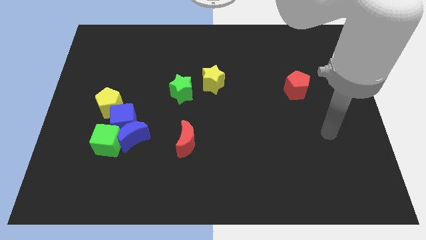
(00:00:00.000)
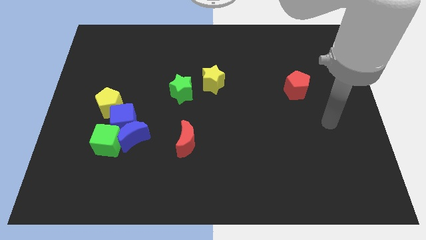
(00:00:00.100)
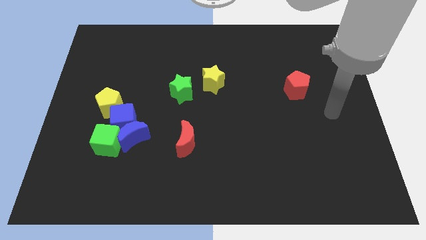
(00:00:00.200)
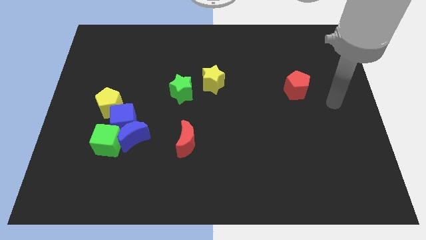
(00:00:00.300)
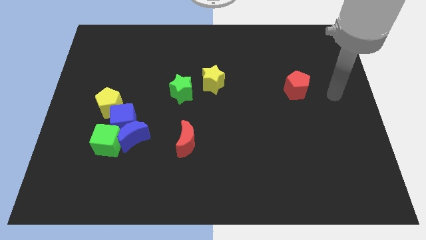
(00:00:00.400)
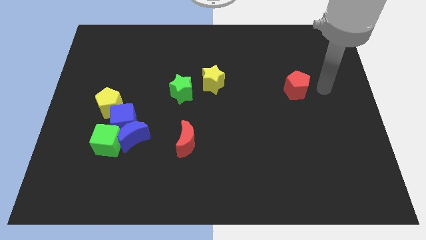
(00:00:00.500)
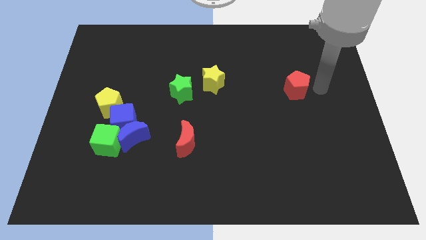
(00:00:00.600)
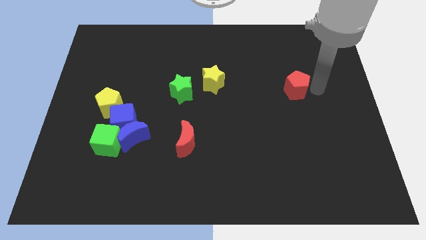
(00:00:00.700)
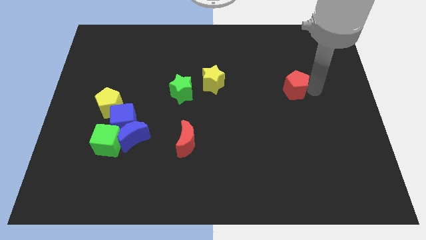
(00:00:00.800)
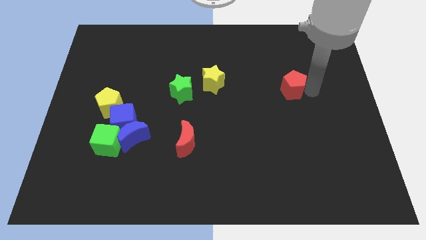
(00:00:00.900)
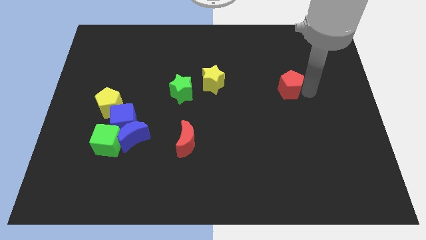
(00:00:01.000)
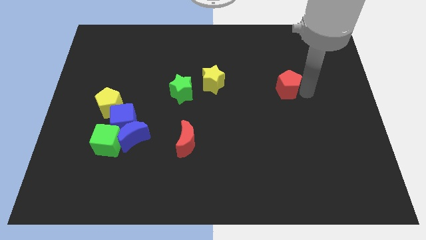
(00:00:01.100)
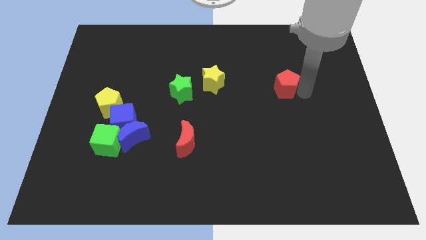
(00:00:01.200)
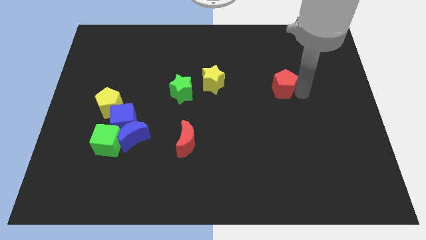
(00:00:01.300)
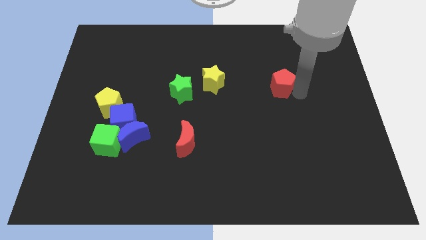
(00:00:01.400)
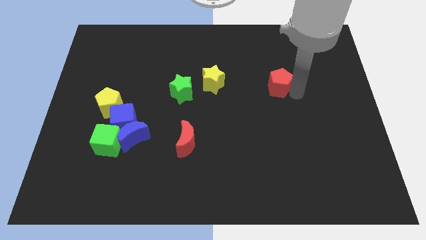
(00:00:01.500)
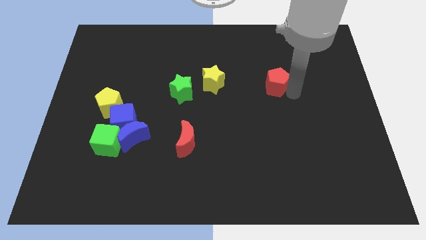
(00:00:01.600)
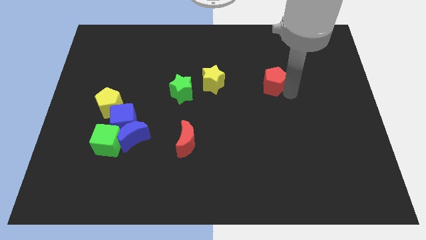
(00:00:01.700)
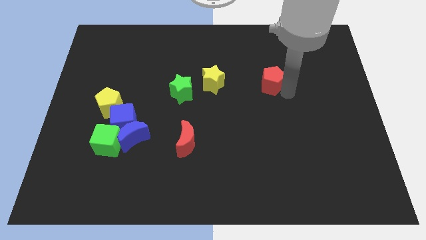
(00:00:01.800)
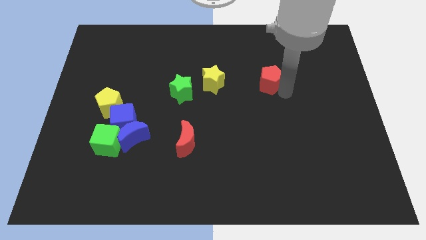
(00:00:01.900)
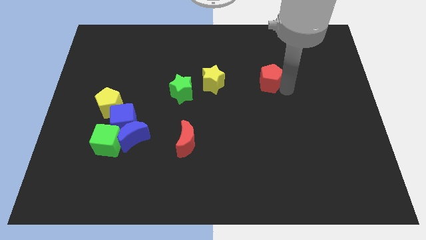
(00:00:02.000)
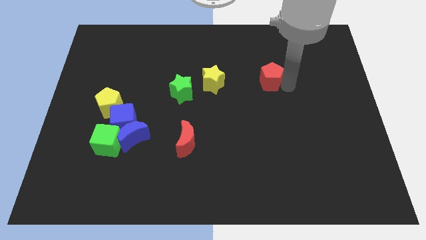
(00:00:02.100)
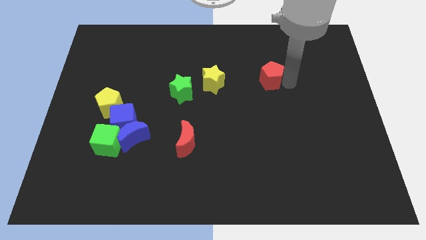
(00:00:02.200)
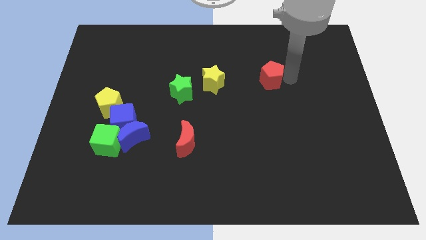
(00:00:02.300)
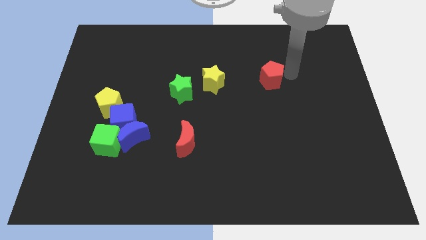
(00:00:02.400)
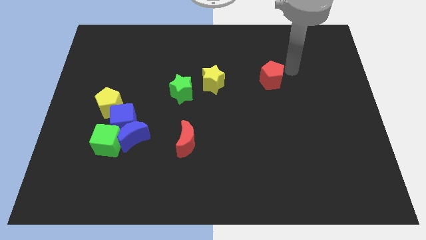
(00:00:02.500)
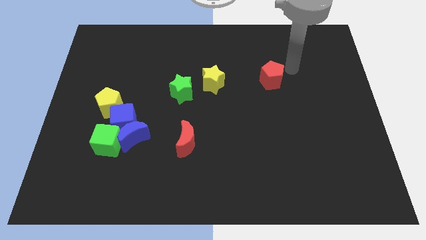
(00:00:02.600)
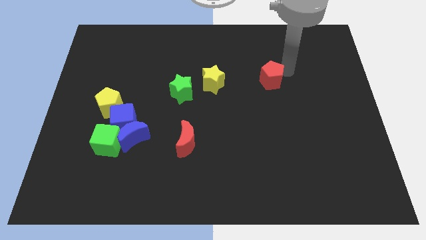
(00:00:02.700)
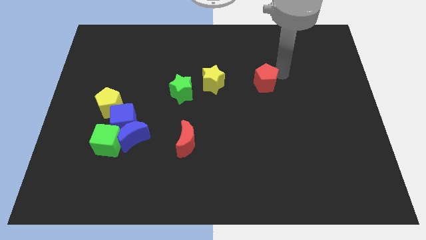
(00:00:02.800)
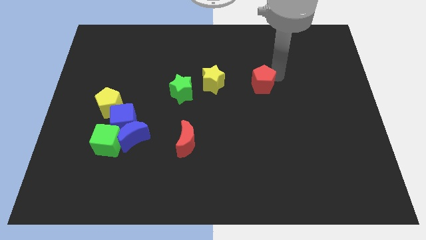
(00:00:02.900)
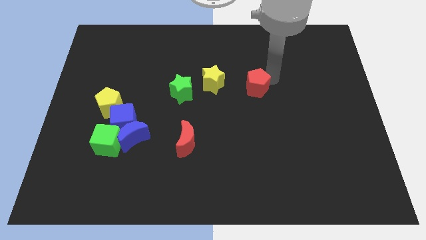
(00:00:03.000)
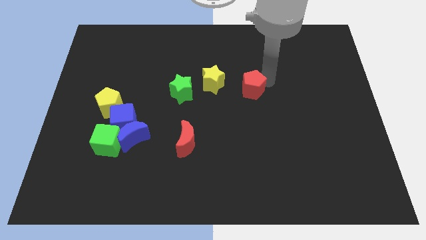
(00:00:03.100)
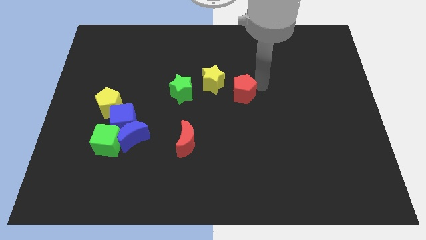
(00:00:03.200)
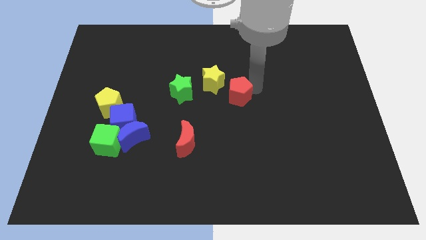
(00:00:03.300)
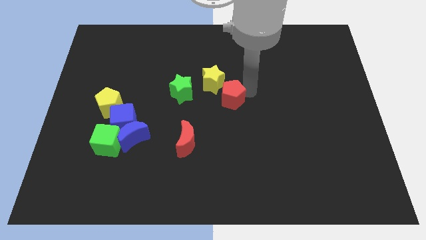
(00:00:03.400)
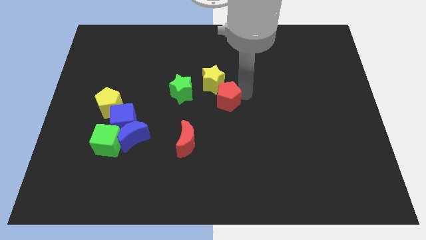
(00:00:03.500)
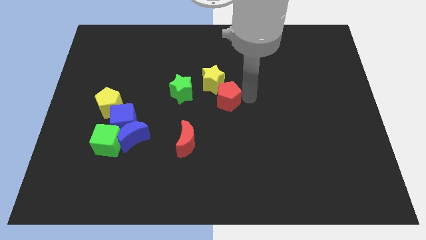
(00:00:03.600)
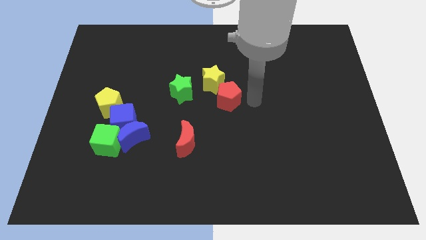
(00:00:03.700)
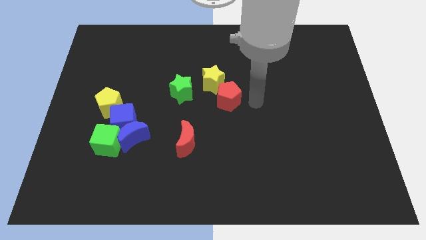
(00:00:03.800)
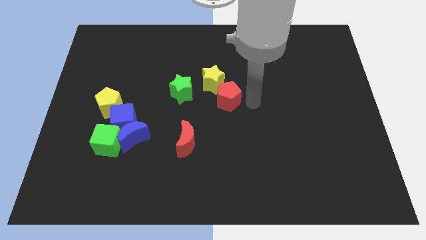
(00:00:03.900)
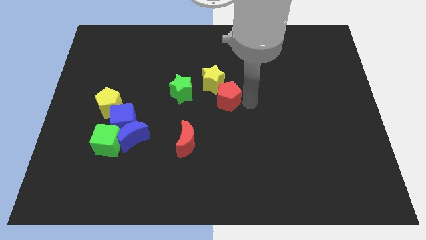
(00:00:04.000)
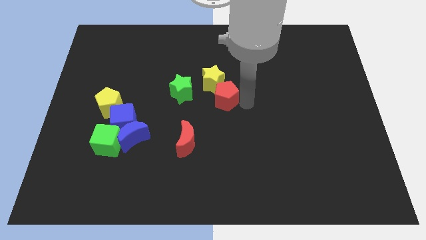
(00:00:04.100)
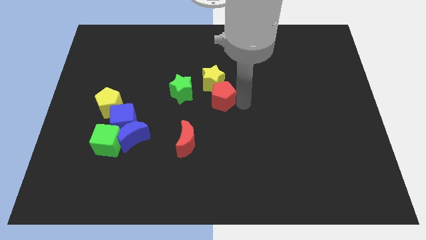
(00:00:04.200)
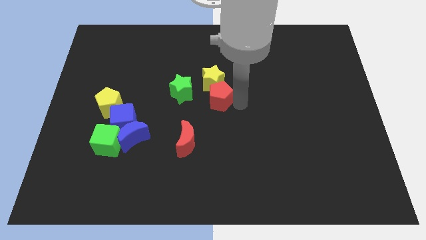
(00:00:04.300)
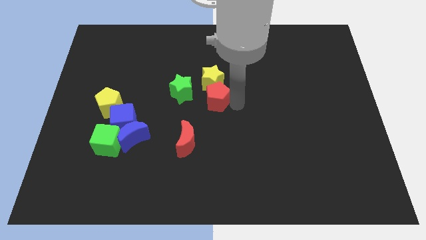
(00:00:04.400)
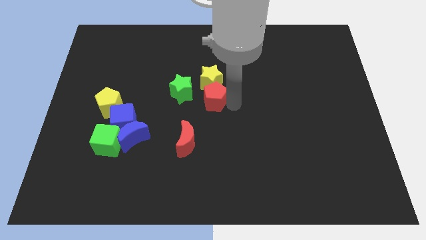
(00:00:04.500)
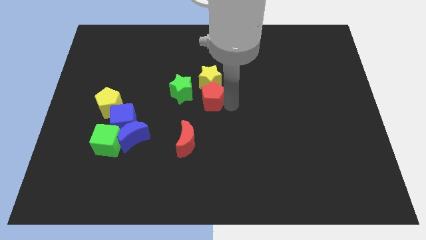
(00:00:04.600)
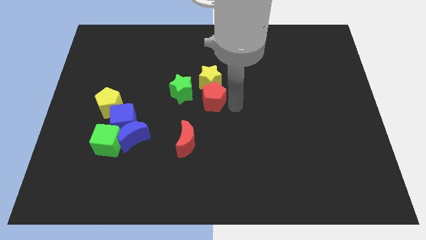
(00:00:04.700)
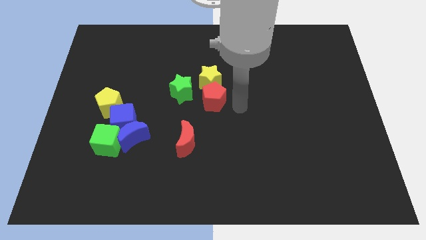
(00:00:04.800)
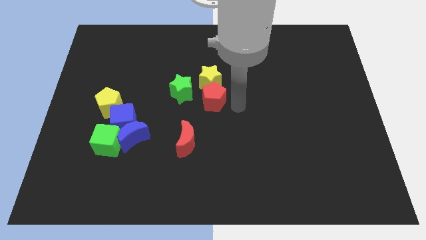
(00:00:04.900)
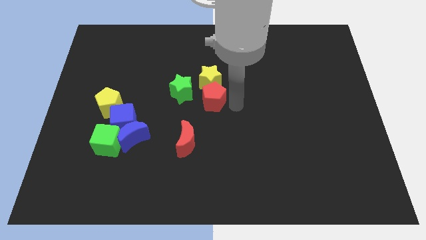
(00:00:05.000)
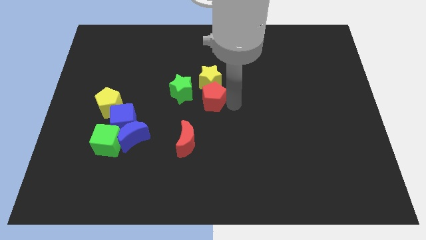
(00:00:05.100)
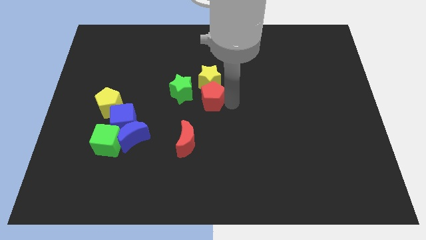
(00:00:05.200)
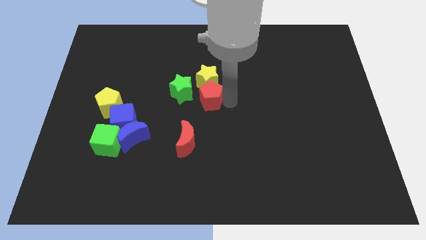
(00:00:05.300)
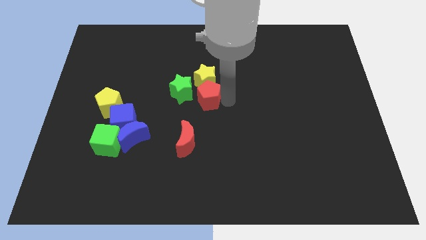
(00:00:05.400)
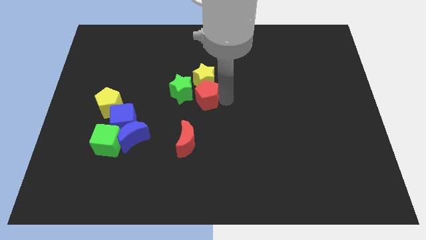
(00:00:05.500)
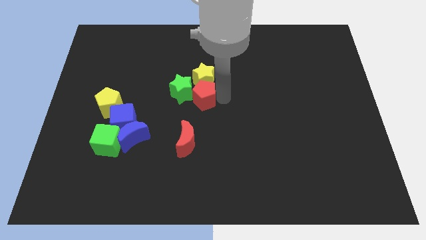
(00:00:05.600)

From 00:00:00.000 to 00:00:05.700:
put the red pentagon close to the green star

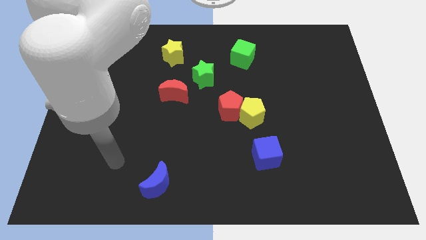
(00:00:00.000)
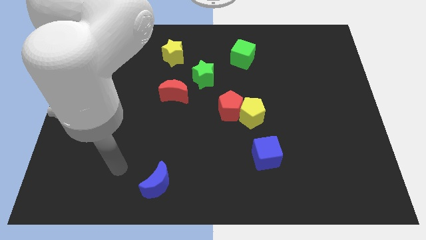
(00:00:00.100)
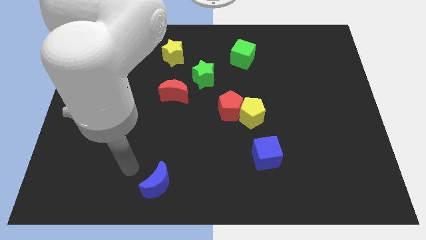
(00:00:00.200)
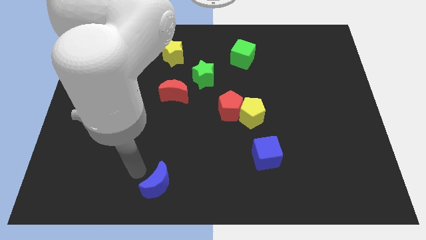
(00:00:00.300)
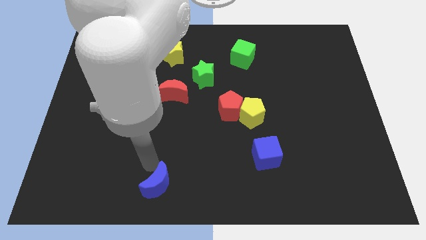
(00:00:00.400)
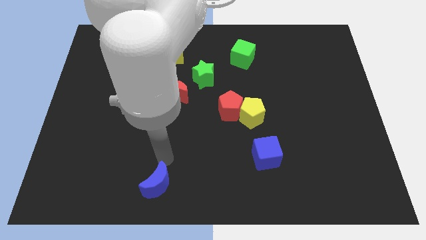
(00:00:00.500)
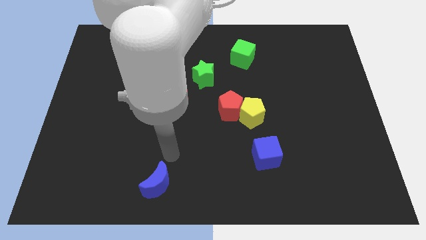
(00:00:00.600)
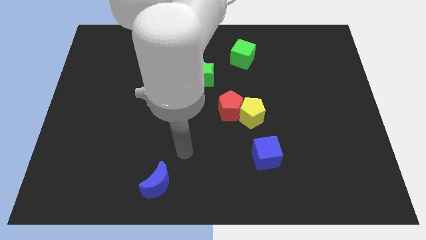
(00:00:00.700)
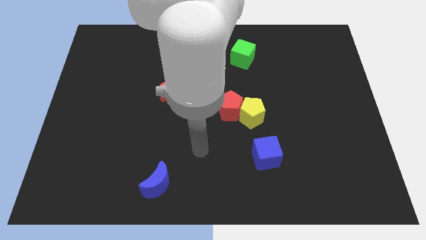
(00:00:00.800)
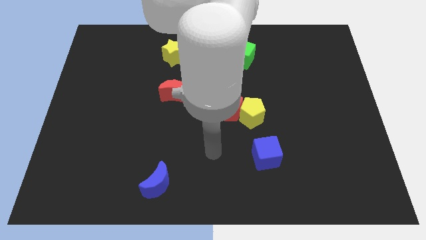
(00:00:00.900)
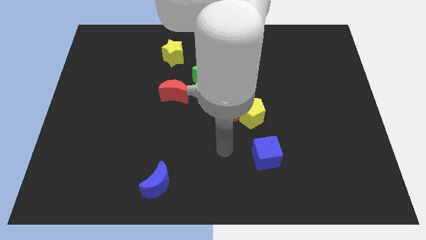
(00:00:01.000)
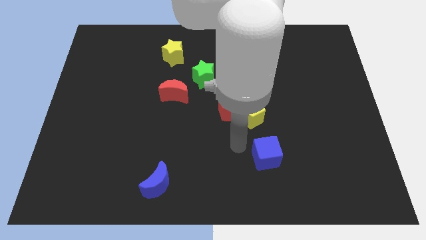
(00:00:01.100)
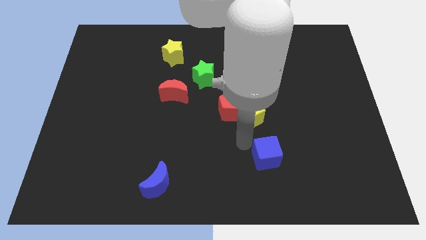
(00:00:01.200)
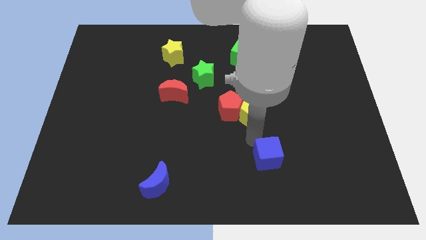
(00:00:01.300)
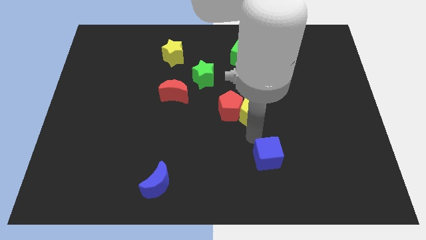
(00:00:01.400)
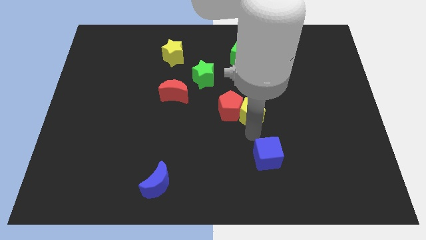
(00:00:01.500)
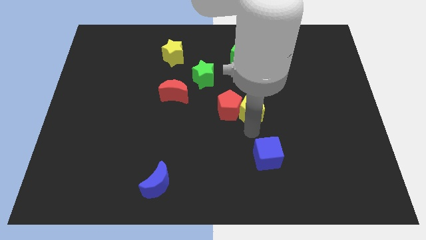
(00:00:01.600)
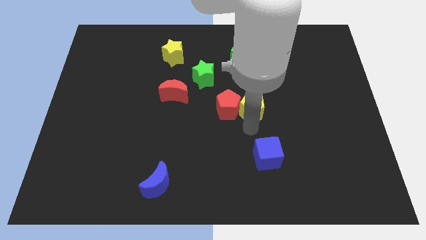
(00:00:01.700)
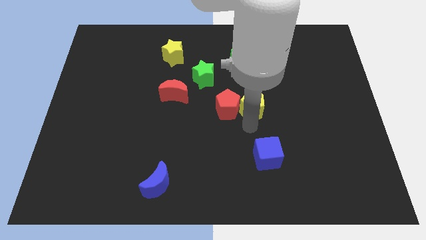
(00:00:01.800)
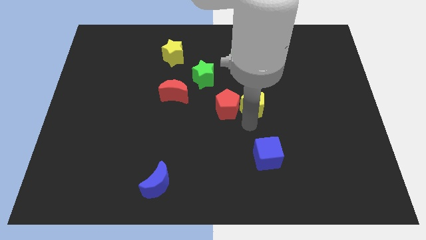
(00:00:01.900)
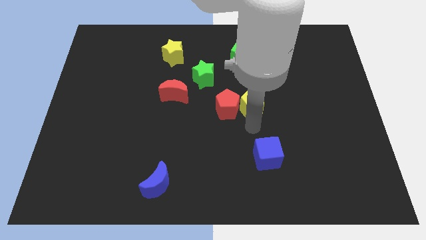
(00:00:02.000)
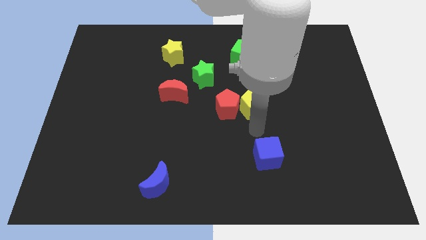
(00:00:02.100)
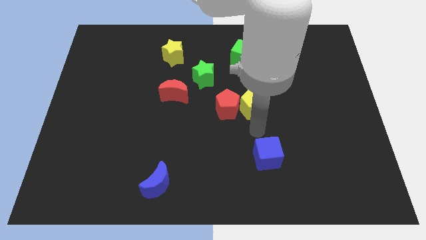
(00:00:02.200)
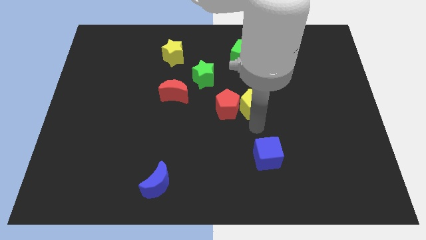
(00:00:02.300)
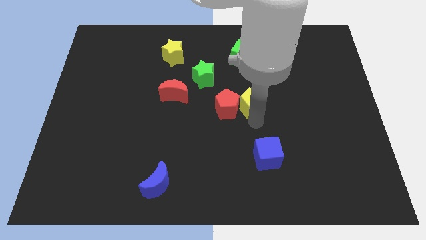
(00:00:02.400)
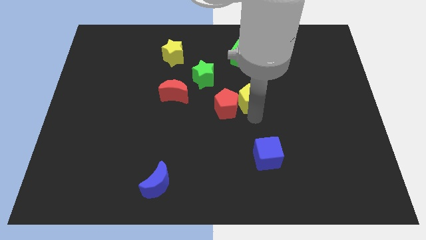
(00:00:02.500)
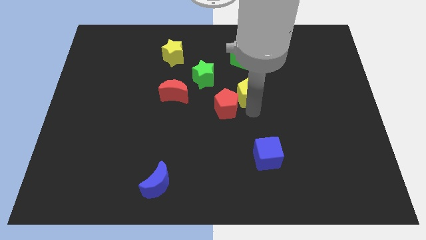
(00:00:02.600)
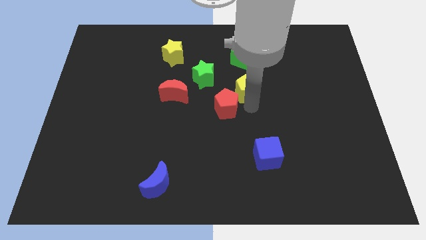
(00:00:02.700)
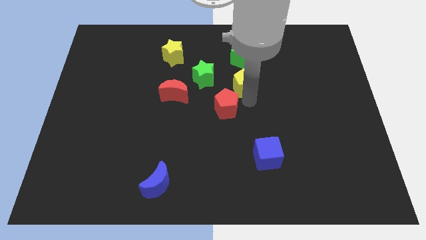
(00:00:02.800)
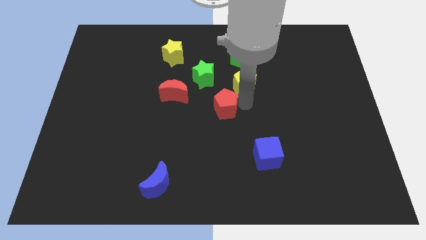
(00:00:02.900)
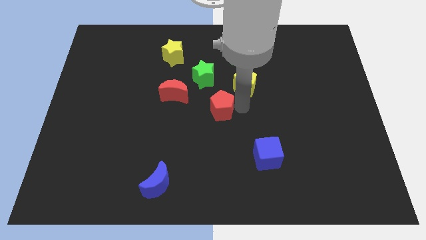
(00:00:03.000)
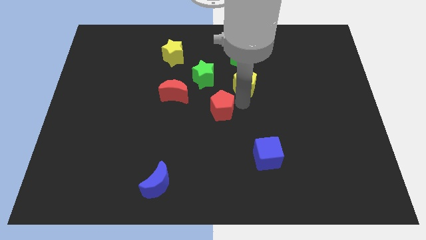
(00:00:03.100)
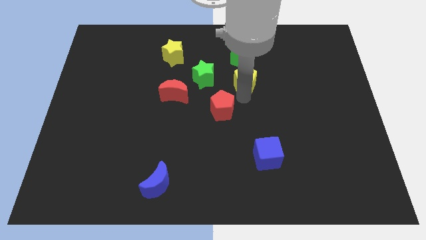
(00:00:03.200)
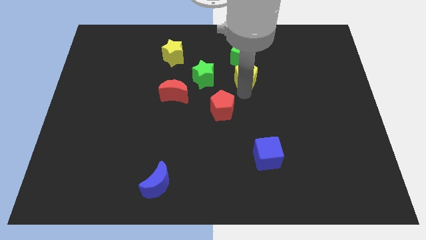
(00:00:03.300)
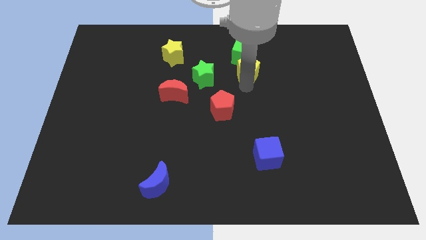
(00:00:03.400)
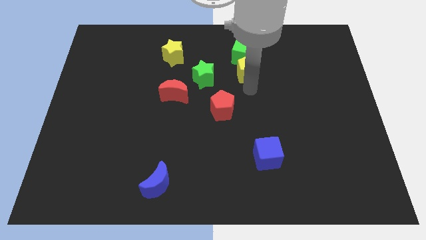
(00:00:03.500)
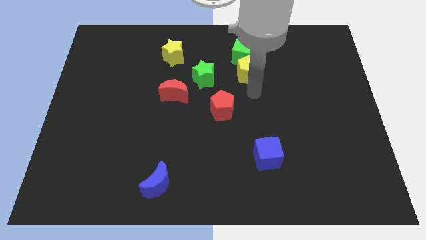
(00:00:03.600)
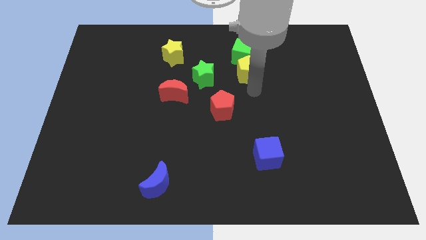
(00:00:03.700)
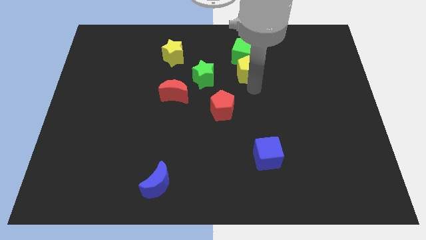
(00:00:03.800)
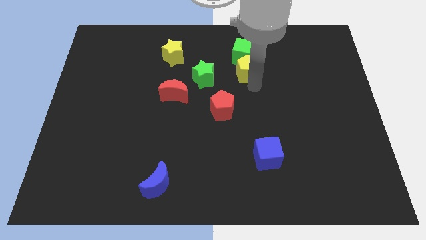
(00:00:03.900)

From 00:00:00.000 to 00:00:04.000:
move the yellow pentagon towards the green cube
